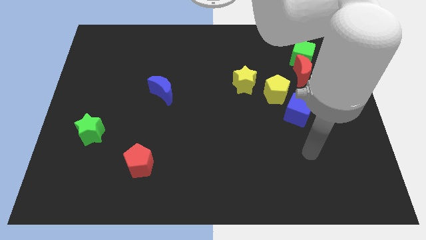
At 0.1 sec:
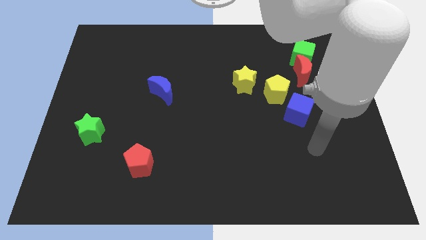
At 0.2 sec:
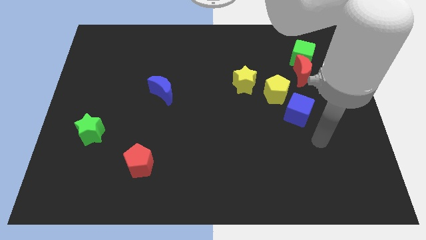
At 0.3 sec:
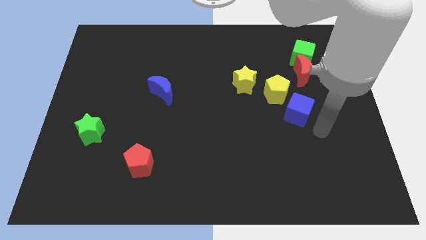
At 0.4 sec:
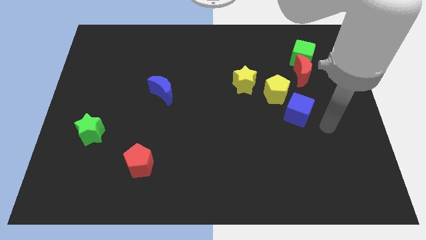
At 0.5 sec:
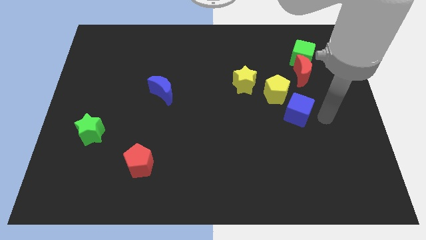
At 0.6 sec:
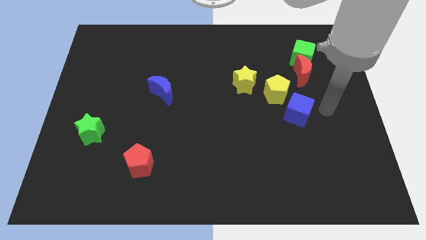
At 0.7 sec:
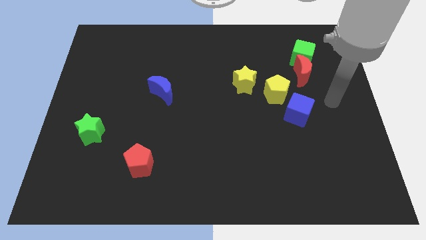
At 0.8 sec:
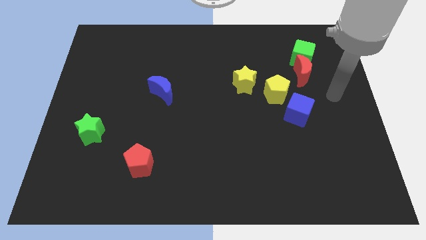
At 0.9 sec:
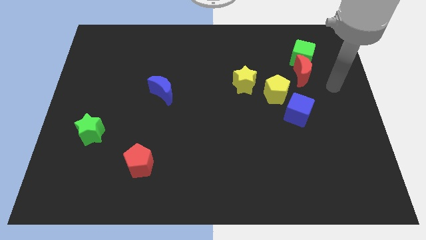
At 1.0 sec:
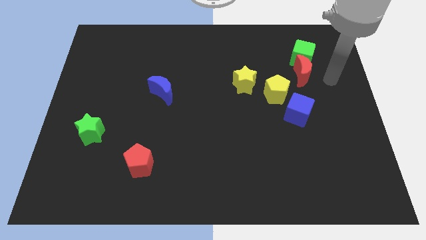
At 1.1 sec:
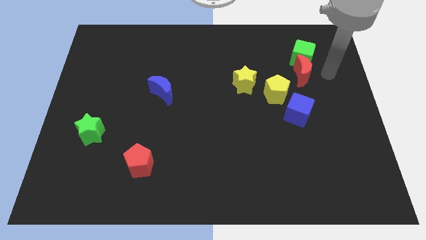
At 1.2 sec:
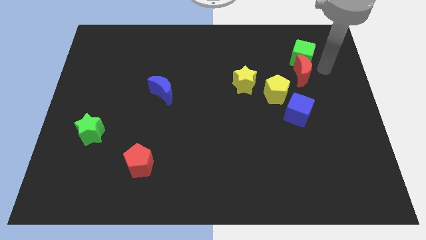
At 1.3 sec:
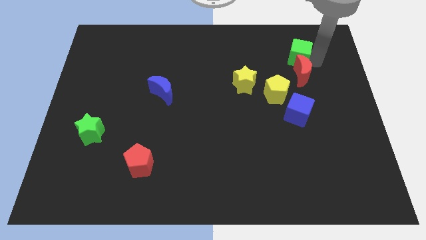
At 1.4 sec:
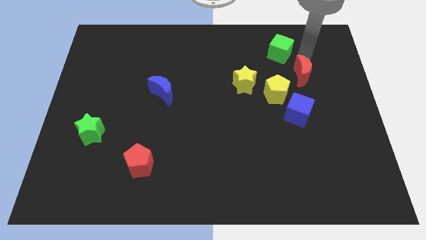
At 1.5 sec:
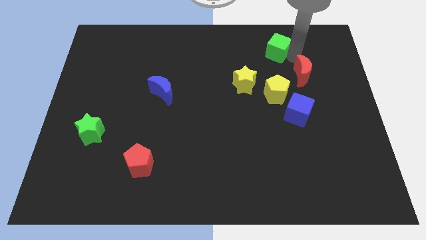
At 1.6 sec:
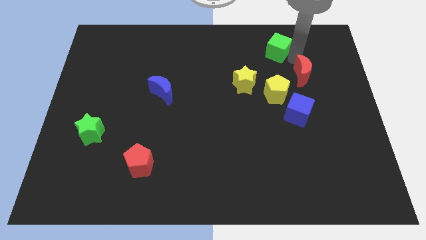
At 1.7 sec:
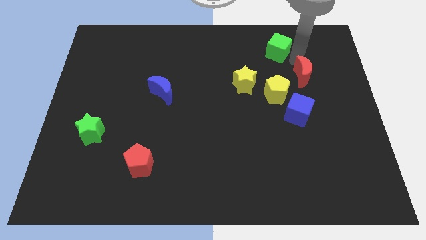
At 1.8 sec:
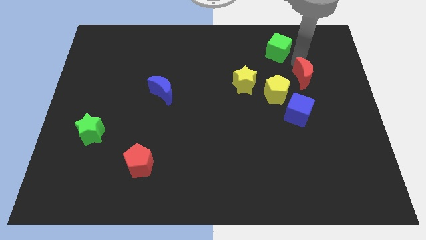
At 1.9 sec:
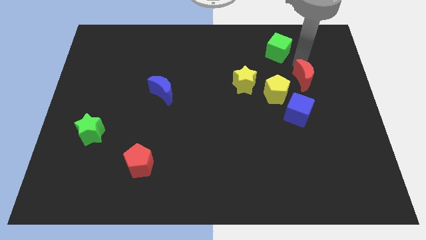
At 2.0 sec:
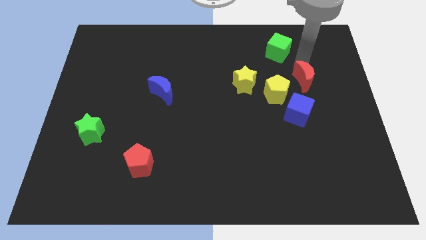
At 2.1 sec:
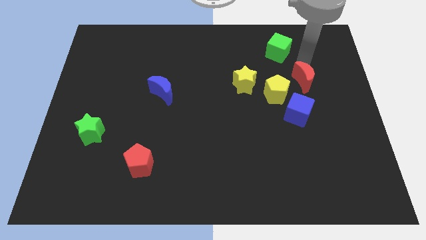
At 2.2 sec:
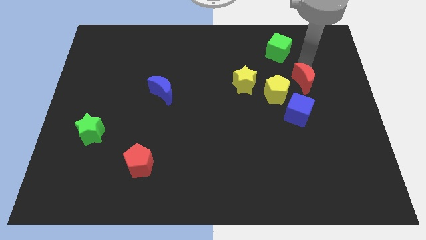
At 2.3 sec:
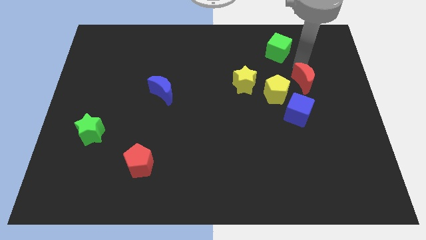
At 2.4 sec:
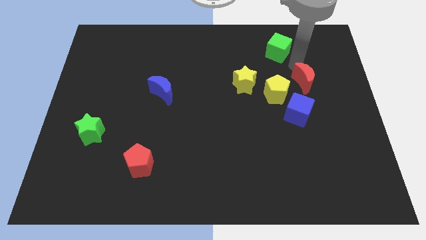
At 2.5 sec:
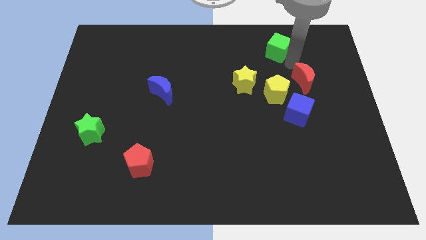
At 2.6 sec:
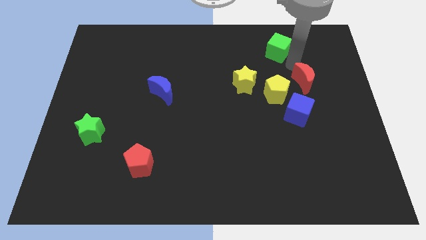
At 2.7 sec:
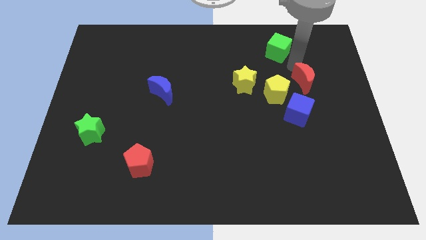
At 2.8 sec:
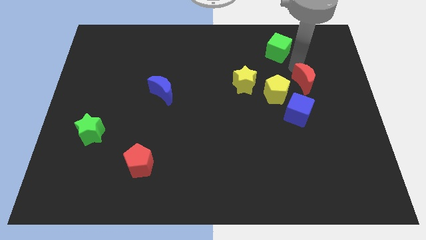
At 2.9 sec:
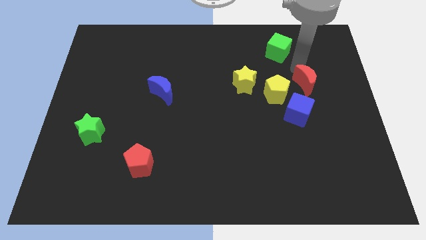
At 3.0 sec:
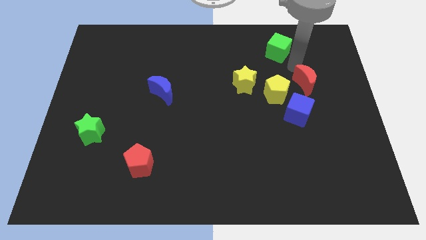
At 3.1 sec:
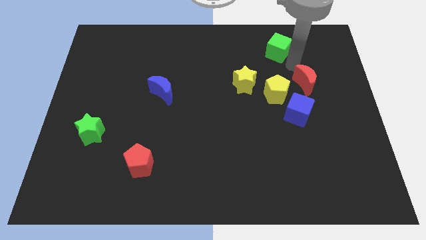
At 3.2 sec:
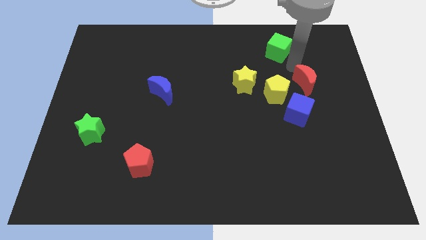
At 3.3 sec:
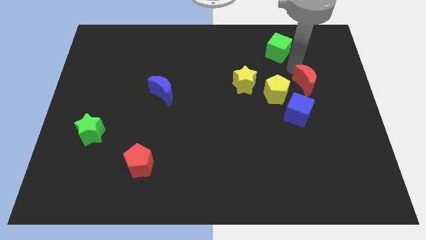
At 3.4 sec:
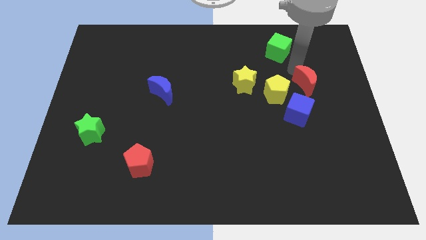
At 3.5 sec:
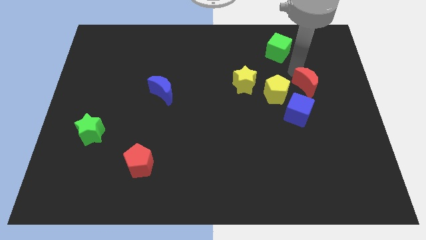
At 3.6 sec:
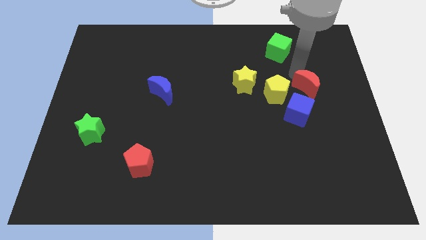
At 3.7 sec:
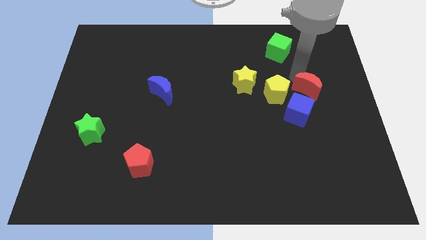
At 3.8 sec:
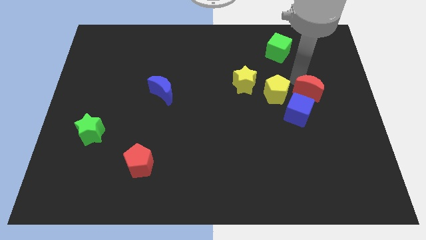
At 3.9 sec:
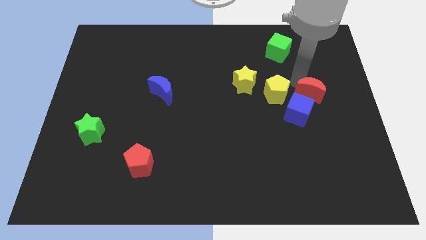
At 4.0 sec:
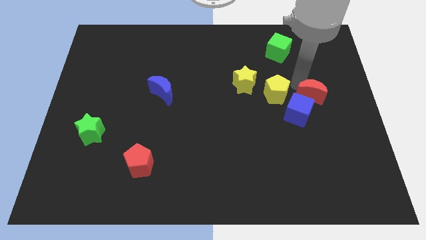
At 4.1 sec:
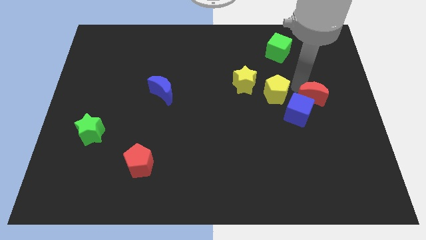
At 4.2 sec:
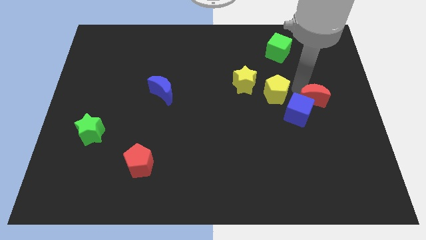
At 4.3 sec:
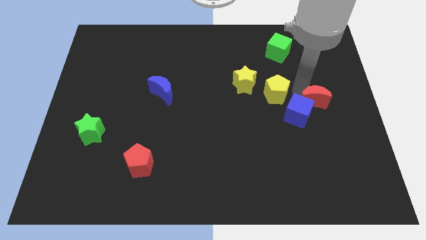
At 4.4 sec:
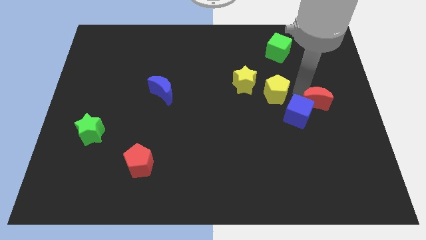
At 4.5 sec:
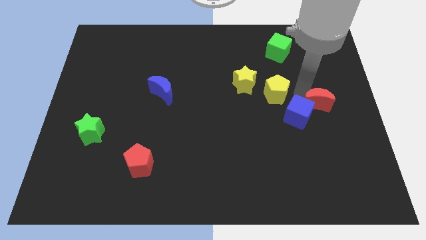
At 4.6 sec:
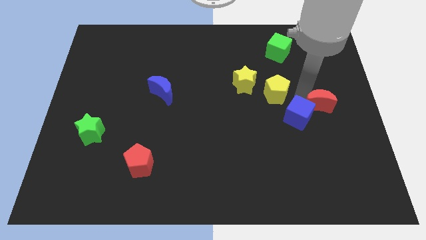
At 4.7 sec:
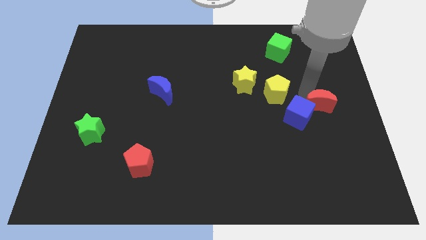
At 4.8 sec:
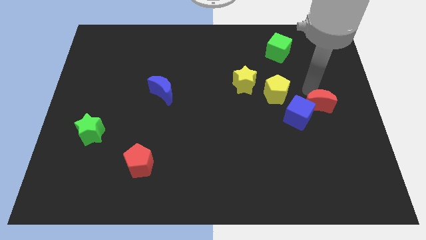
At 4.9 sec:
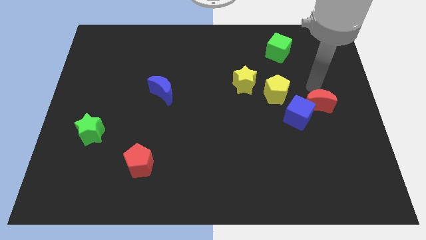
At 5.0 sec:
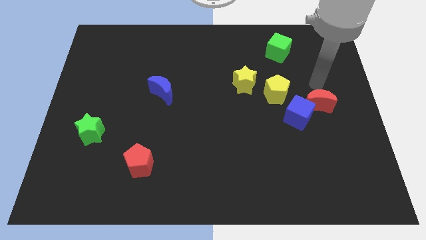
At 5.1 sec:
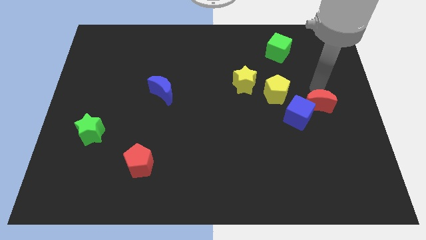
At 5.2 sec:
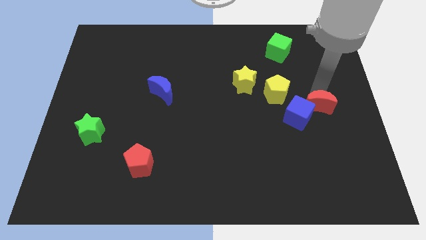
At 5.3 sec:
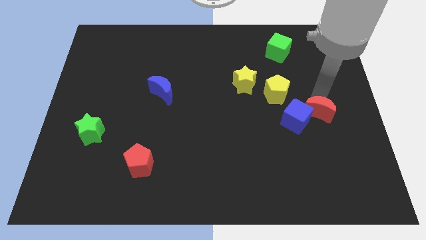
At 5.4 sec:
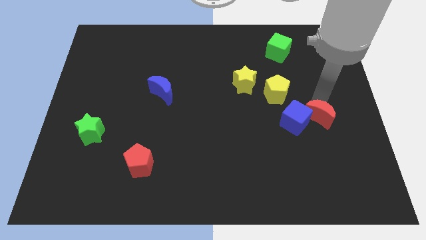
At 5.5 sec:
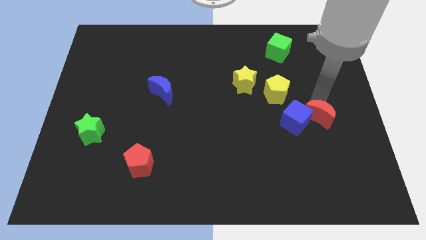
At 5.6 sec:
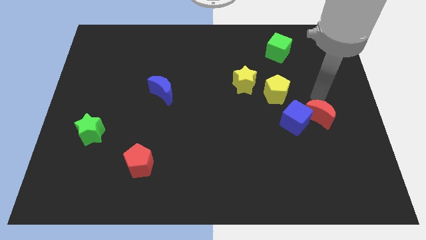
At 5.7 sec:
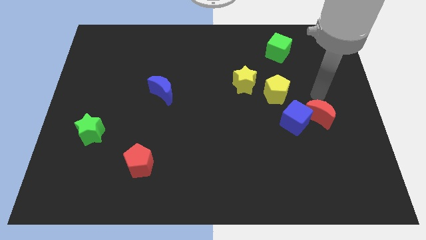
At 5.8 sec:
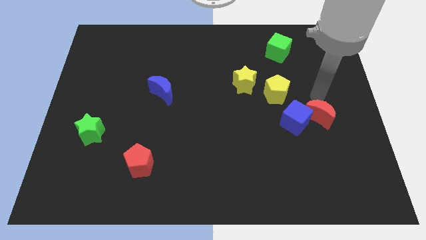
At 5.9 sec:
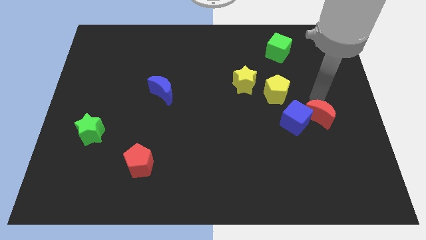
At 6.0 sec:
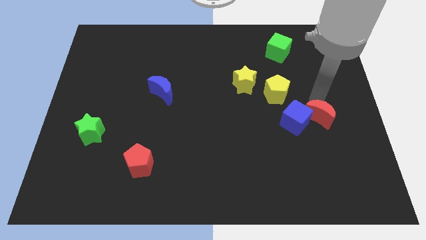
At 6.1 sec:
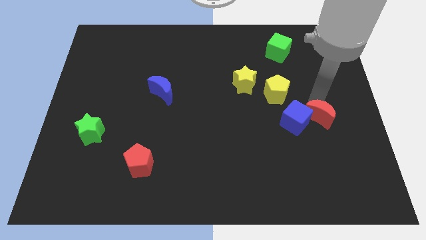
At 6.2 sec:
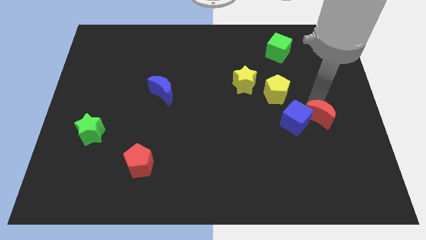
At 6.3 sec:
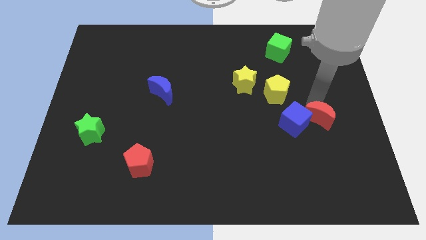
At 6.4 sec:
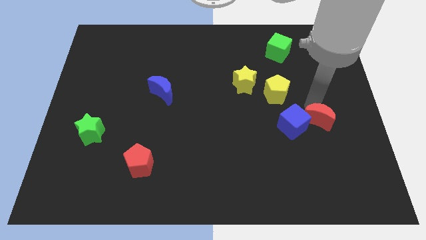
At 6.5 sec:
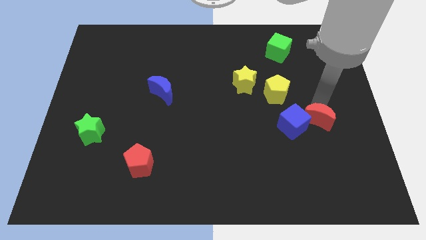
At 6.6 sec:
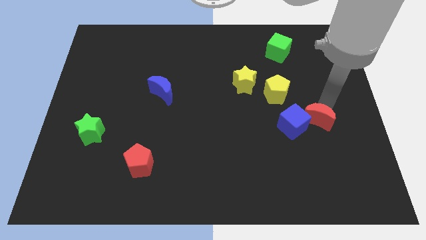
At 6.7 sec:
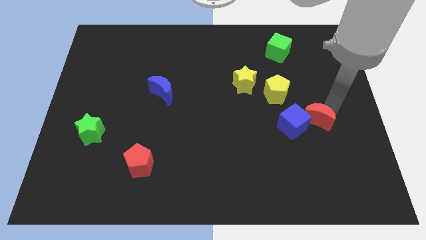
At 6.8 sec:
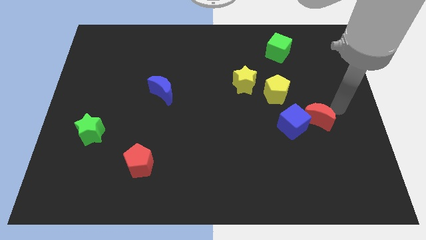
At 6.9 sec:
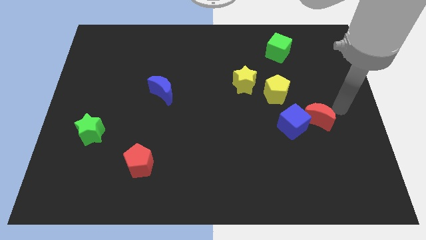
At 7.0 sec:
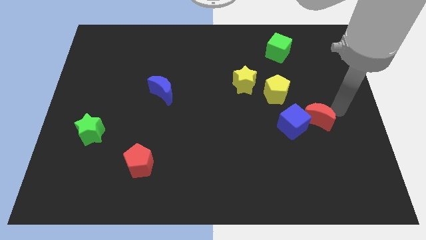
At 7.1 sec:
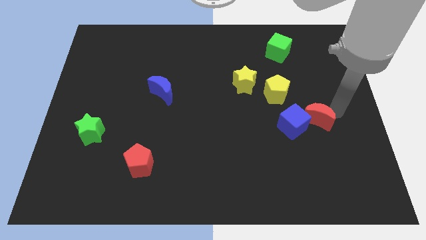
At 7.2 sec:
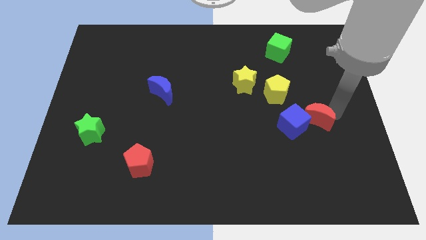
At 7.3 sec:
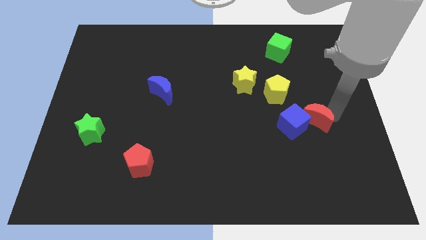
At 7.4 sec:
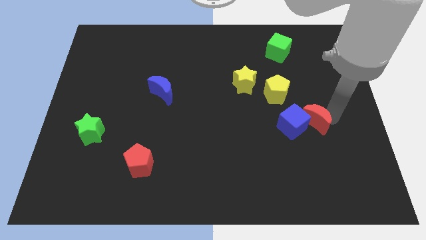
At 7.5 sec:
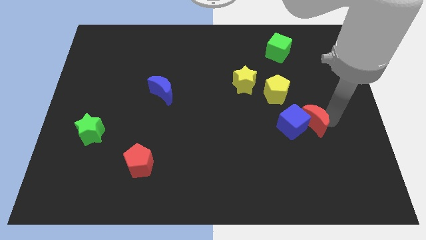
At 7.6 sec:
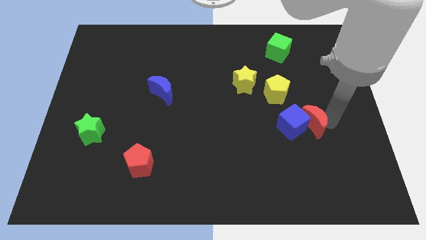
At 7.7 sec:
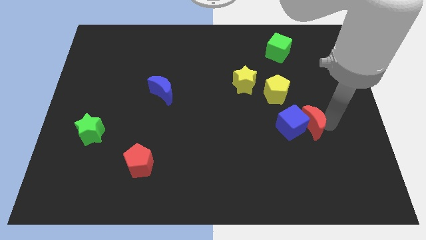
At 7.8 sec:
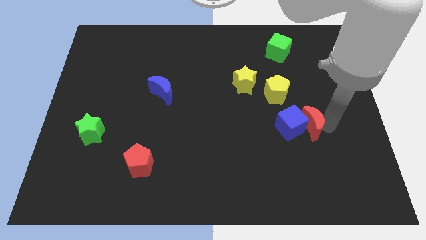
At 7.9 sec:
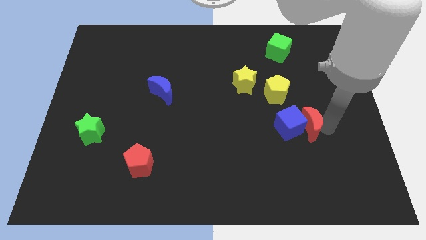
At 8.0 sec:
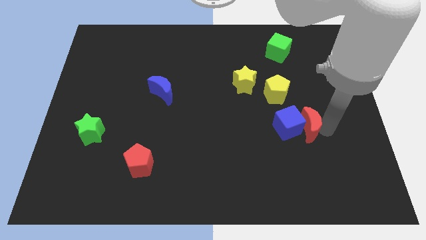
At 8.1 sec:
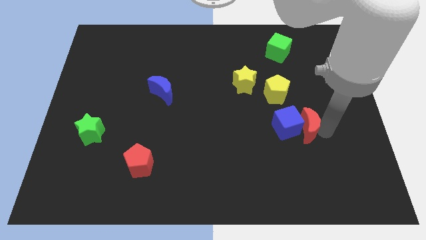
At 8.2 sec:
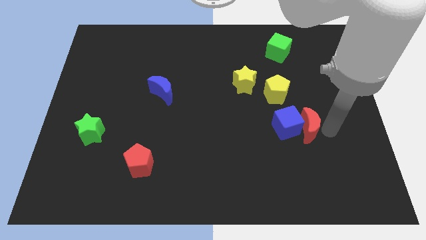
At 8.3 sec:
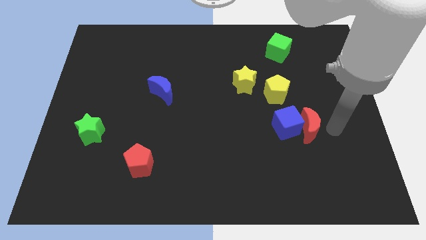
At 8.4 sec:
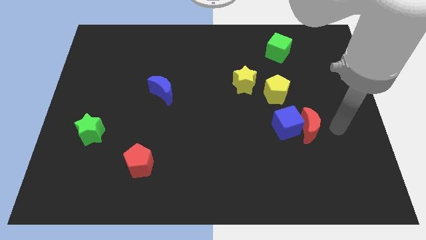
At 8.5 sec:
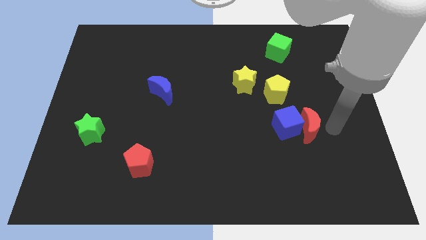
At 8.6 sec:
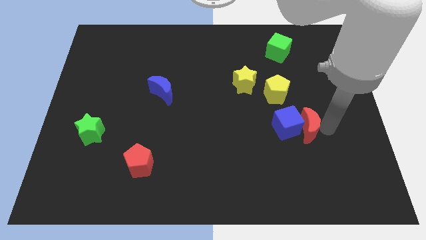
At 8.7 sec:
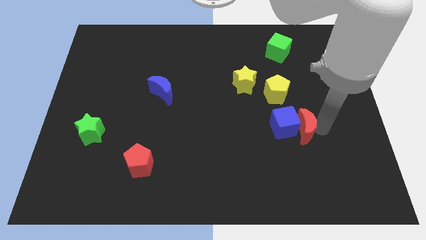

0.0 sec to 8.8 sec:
slightly push the red moon down and then left
